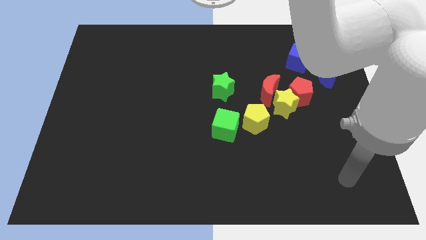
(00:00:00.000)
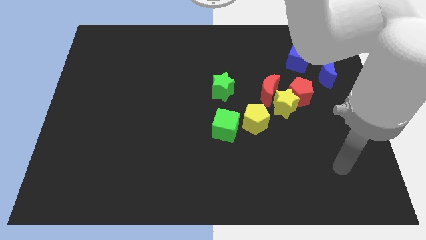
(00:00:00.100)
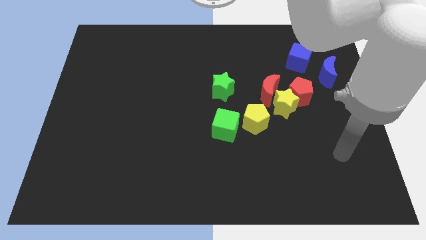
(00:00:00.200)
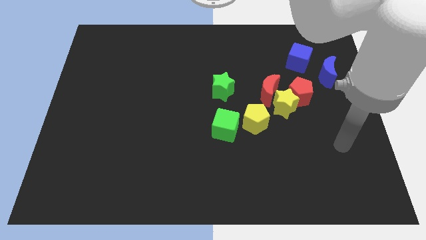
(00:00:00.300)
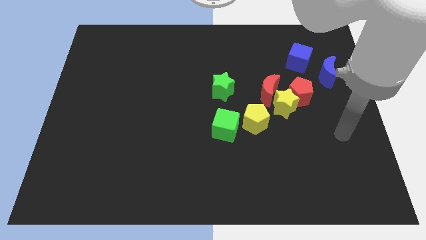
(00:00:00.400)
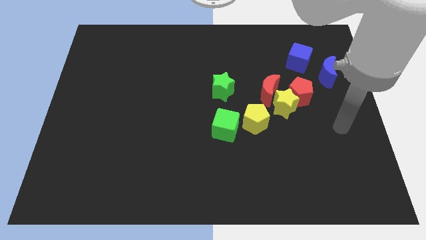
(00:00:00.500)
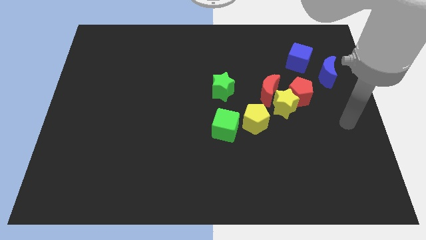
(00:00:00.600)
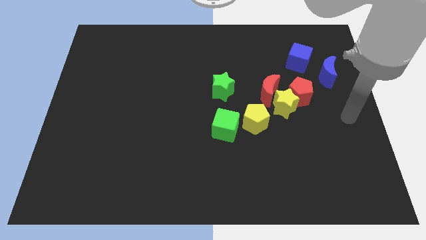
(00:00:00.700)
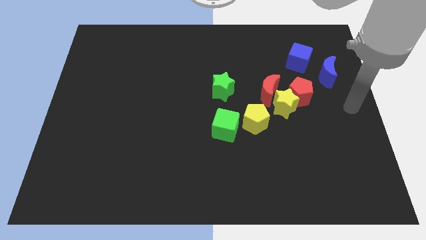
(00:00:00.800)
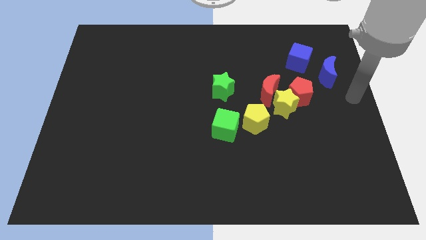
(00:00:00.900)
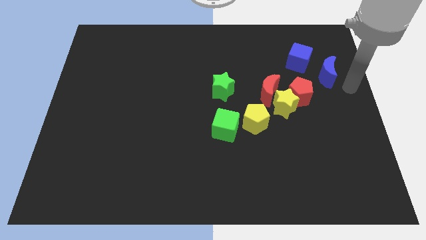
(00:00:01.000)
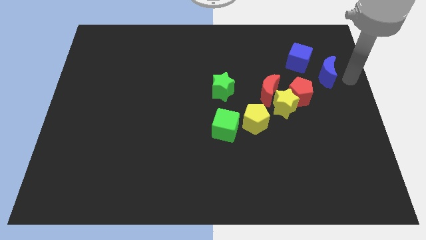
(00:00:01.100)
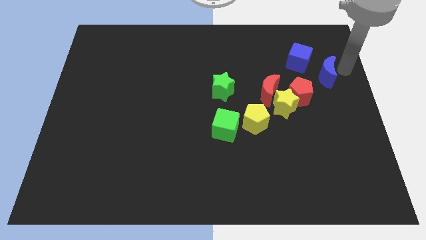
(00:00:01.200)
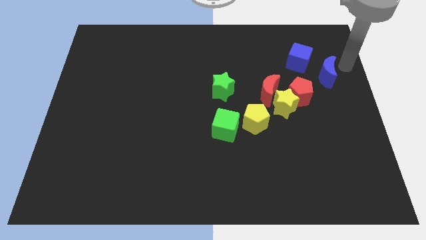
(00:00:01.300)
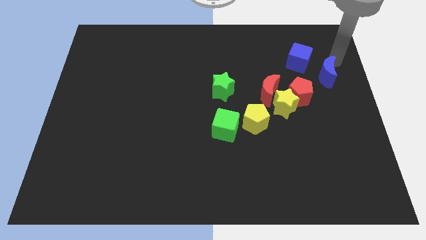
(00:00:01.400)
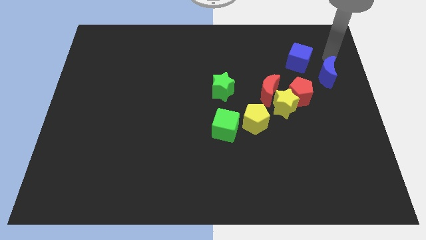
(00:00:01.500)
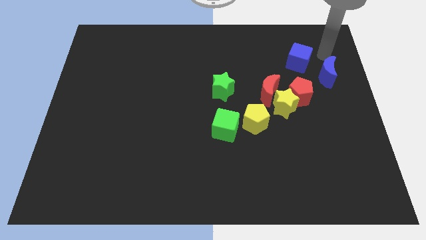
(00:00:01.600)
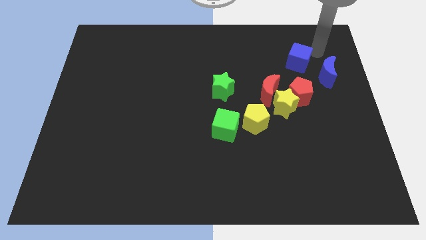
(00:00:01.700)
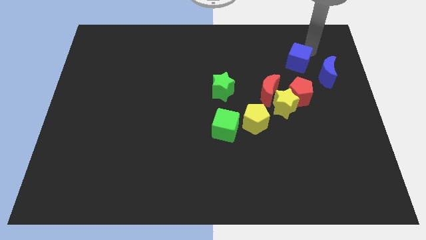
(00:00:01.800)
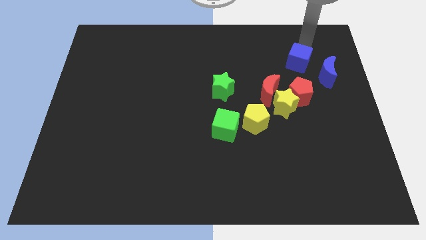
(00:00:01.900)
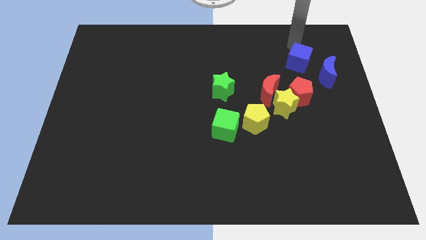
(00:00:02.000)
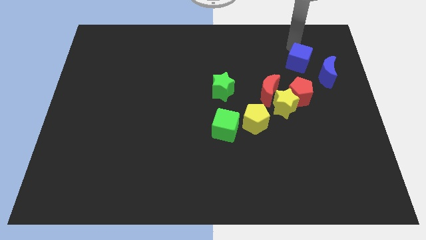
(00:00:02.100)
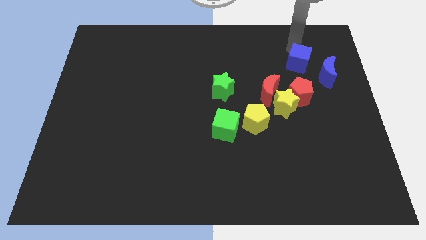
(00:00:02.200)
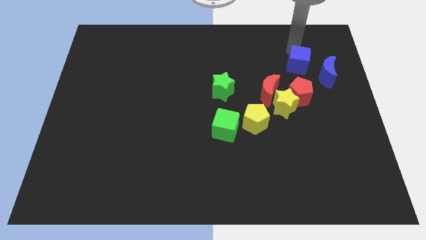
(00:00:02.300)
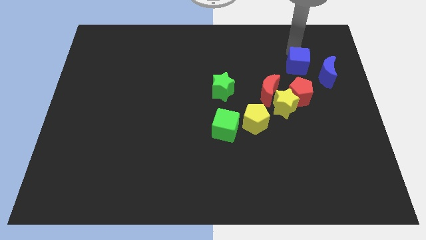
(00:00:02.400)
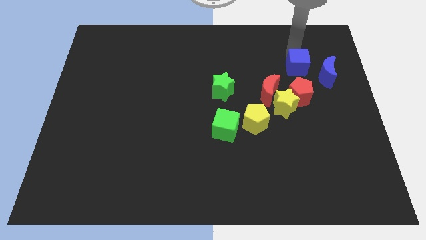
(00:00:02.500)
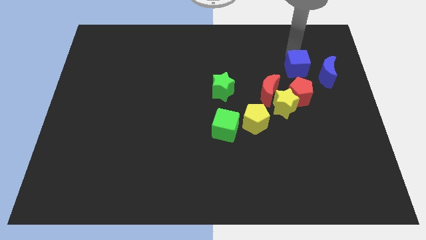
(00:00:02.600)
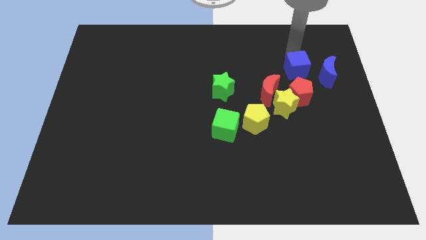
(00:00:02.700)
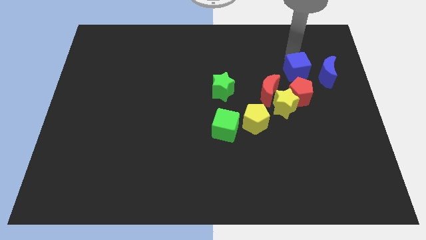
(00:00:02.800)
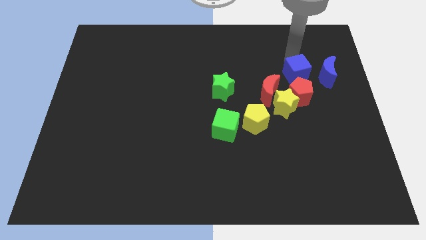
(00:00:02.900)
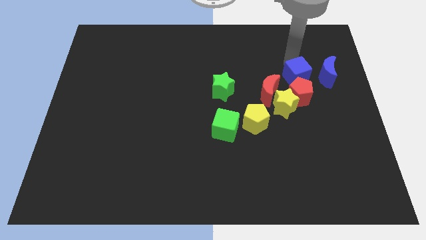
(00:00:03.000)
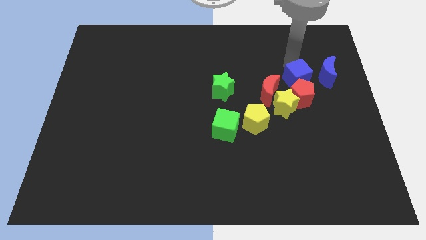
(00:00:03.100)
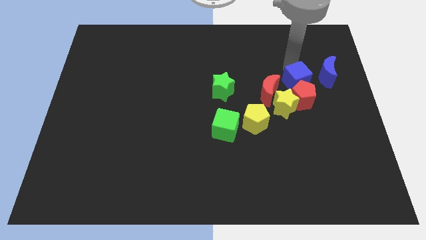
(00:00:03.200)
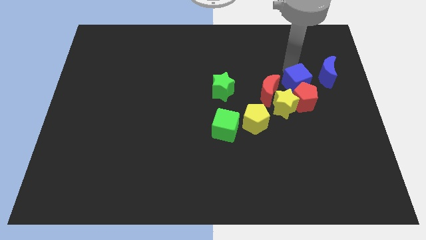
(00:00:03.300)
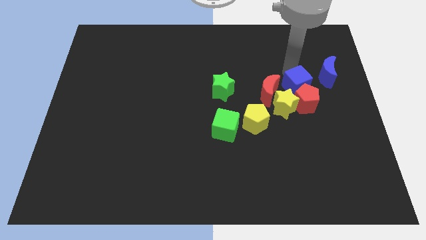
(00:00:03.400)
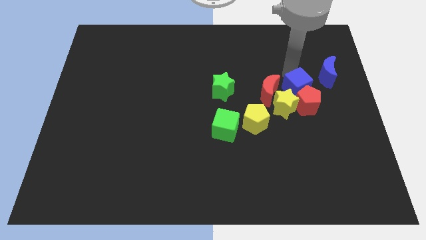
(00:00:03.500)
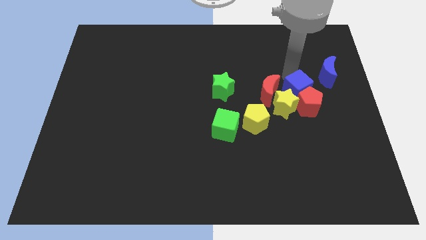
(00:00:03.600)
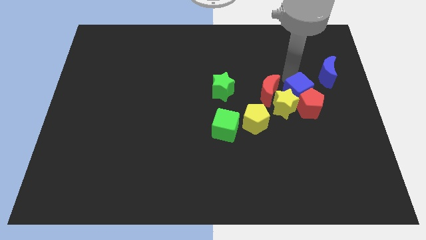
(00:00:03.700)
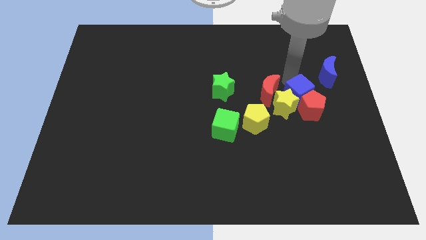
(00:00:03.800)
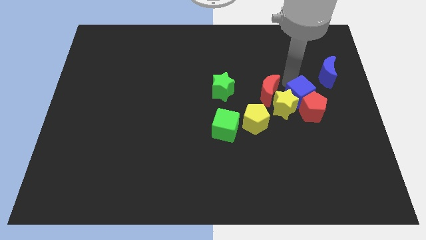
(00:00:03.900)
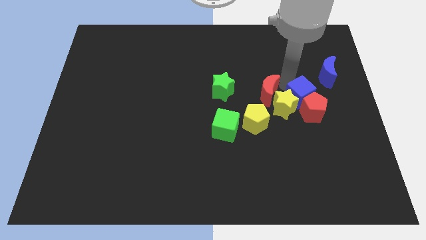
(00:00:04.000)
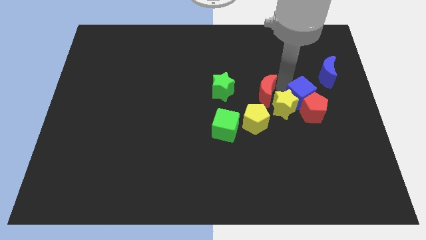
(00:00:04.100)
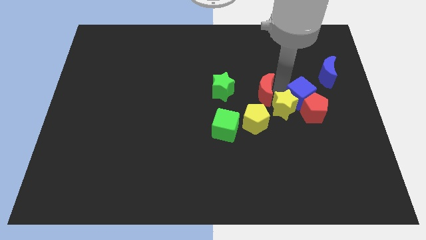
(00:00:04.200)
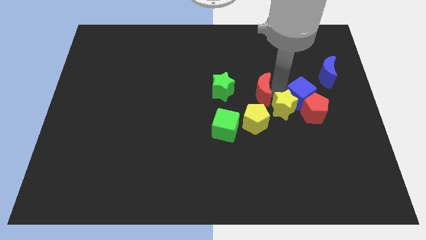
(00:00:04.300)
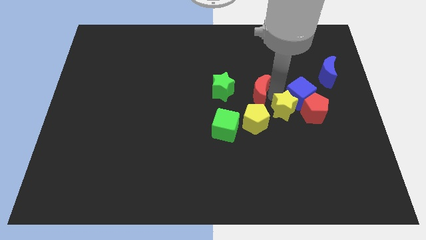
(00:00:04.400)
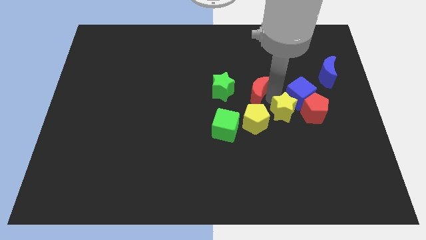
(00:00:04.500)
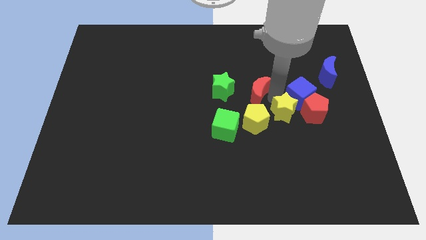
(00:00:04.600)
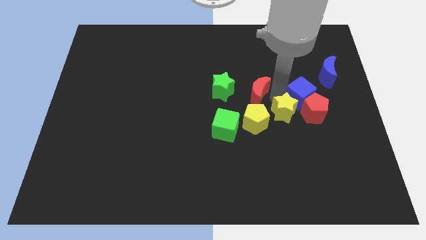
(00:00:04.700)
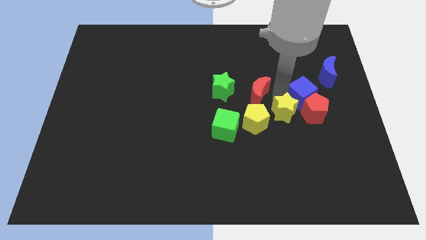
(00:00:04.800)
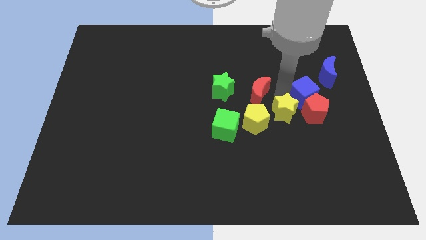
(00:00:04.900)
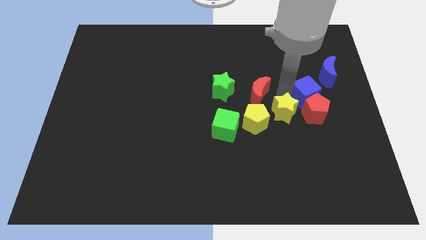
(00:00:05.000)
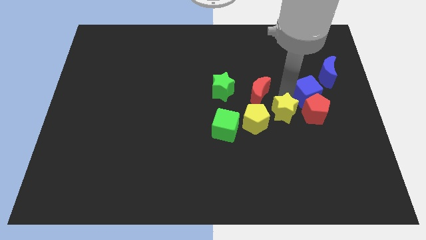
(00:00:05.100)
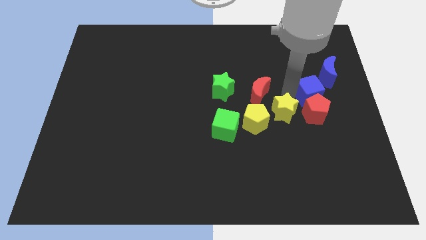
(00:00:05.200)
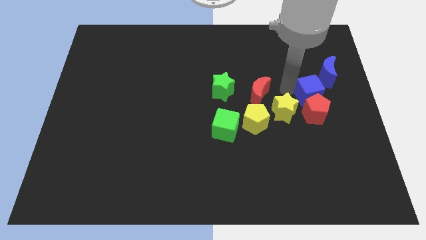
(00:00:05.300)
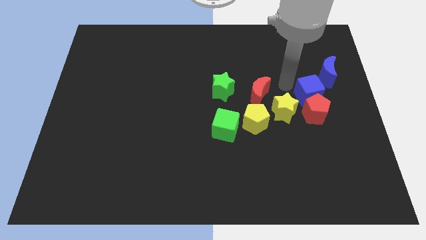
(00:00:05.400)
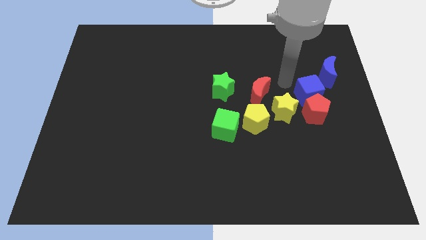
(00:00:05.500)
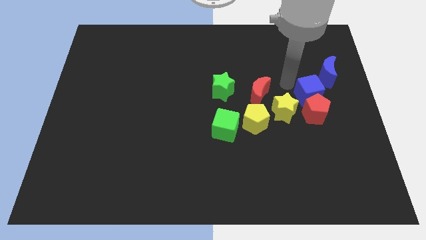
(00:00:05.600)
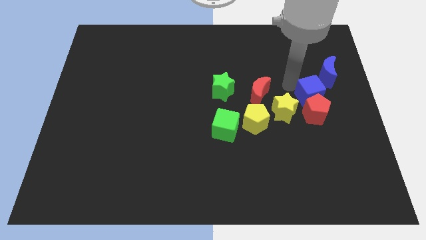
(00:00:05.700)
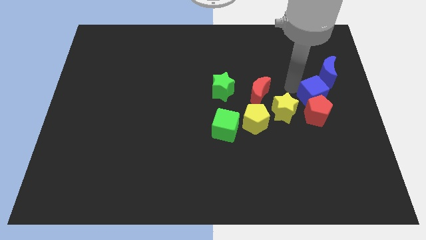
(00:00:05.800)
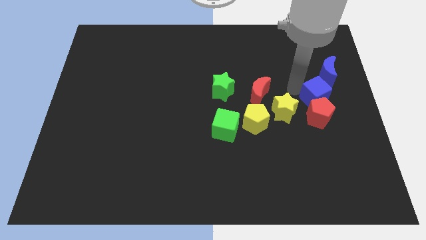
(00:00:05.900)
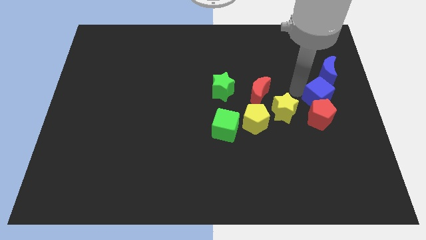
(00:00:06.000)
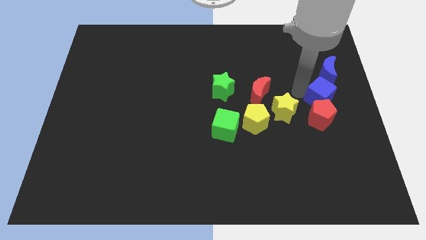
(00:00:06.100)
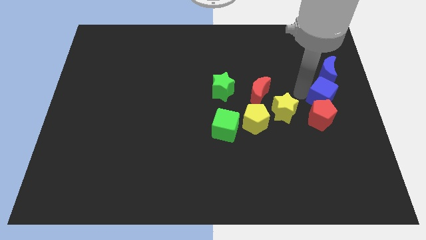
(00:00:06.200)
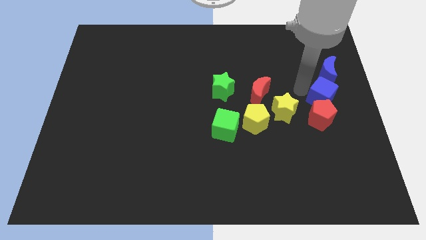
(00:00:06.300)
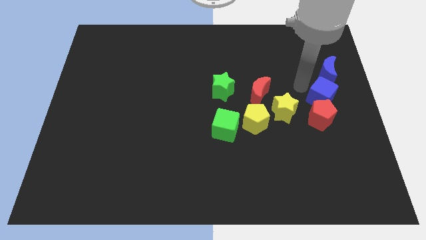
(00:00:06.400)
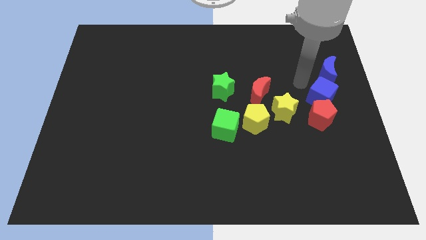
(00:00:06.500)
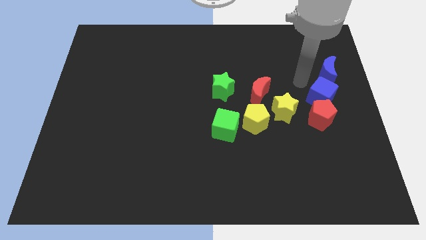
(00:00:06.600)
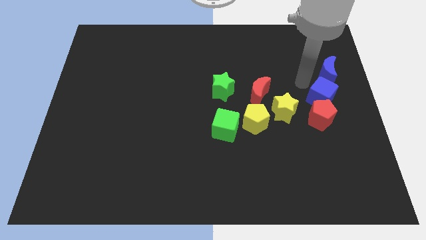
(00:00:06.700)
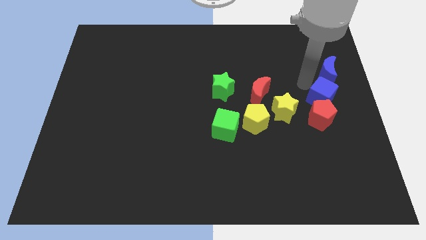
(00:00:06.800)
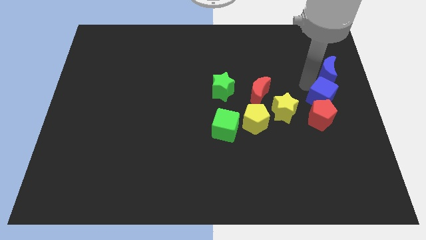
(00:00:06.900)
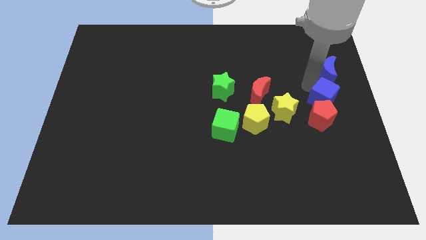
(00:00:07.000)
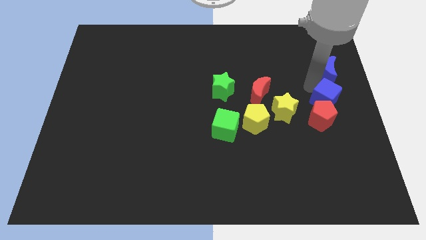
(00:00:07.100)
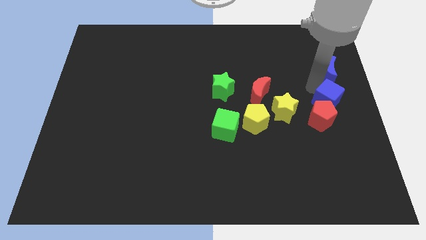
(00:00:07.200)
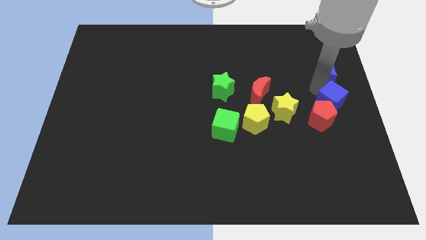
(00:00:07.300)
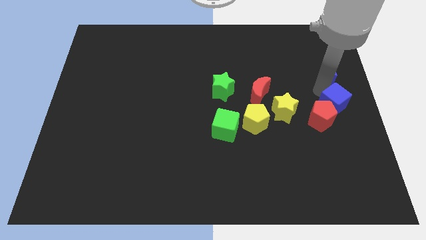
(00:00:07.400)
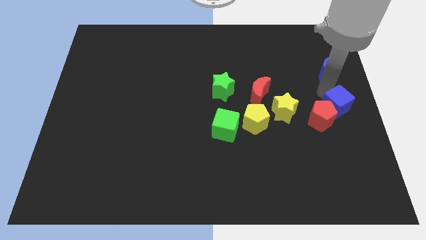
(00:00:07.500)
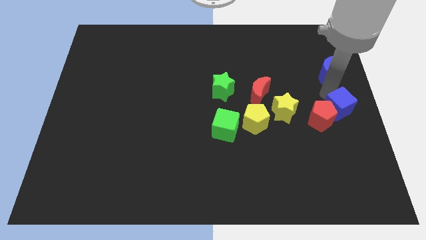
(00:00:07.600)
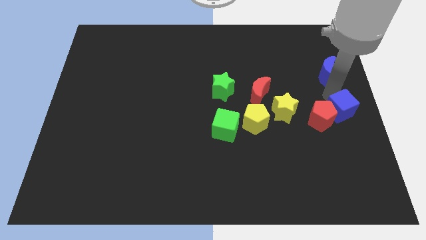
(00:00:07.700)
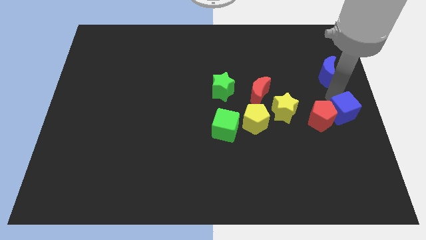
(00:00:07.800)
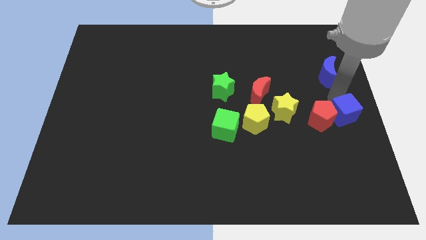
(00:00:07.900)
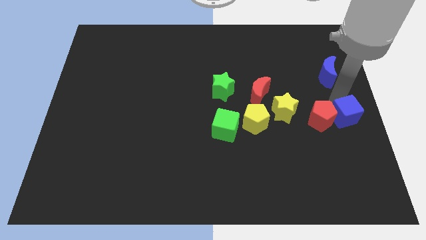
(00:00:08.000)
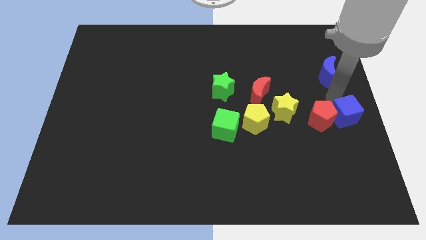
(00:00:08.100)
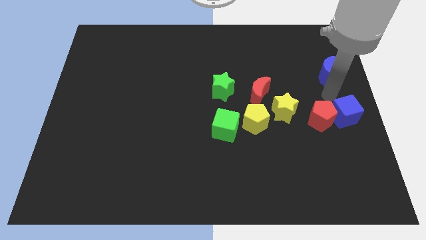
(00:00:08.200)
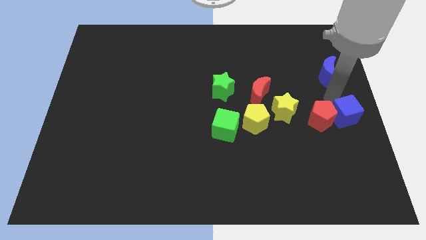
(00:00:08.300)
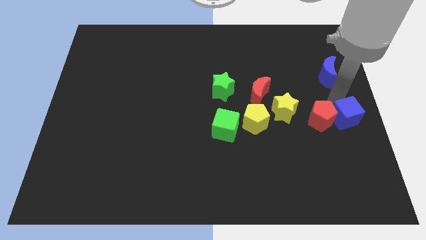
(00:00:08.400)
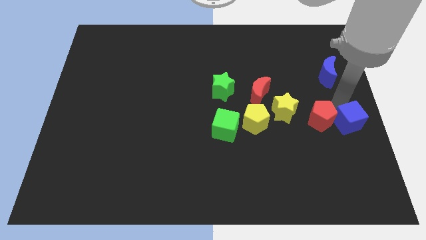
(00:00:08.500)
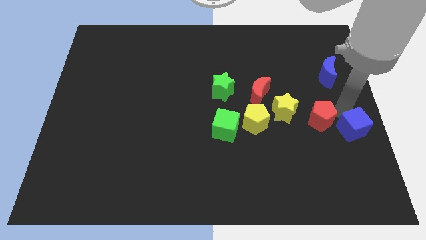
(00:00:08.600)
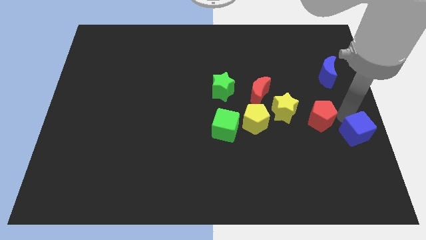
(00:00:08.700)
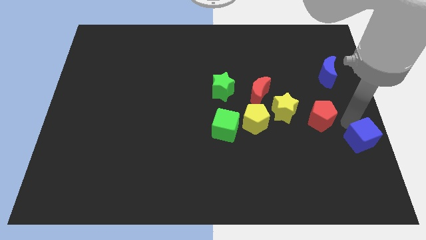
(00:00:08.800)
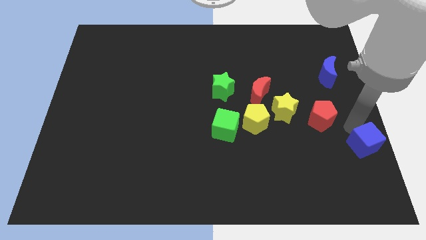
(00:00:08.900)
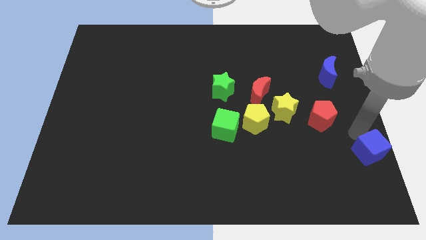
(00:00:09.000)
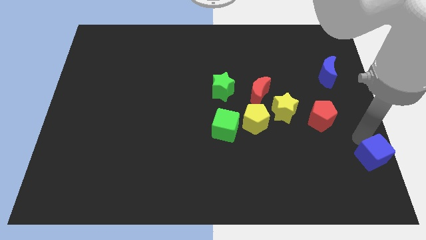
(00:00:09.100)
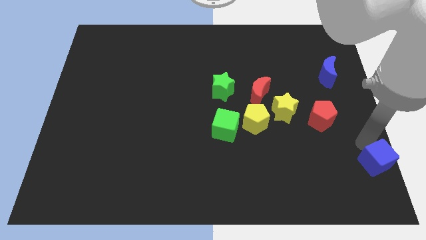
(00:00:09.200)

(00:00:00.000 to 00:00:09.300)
push the blue cube to the bottom right
